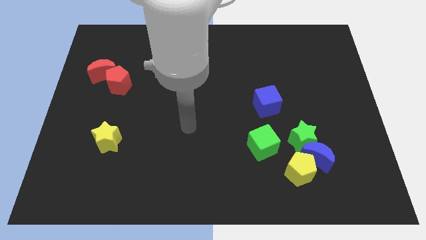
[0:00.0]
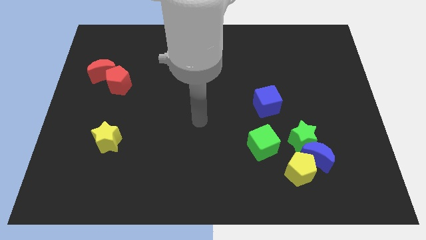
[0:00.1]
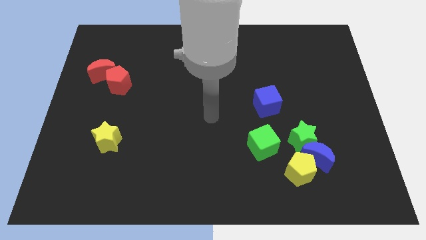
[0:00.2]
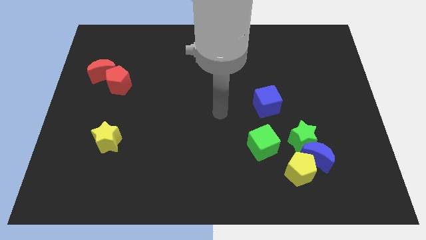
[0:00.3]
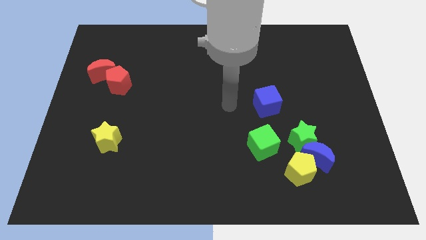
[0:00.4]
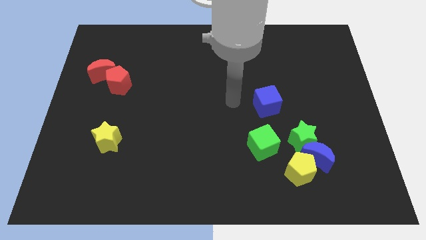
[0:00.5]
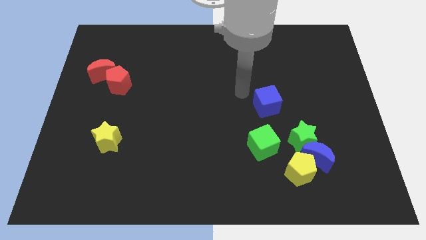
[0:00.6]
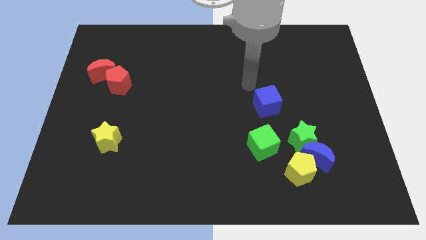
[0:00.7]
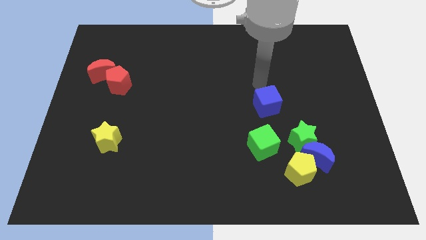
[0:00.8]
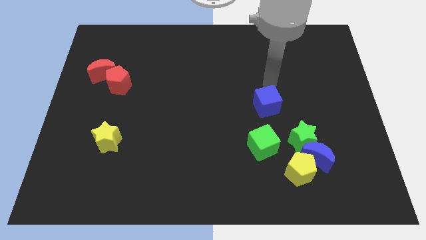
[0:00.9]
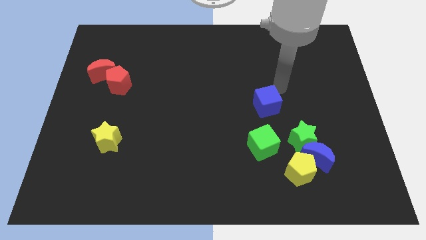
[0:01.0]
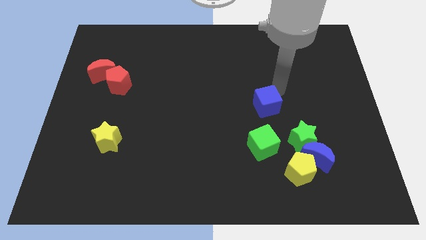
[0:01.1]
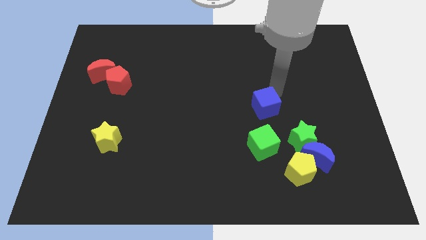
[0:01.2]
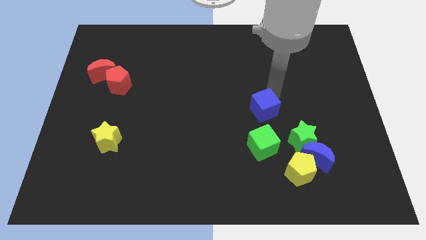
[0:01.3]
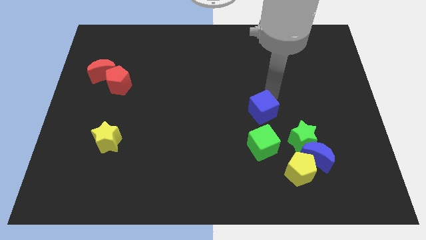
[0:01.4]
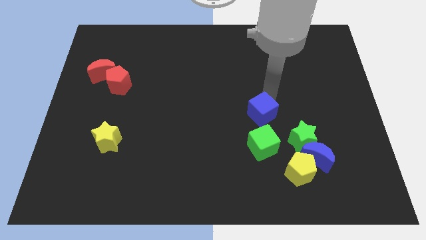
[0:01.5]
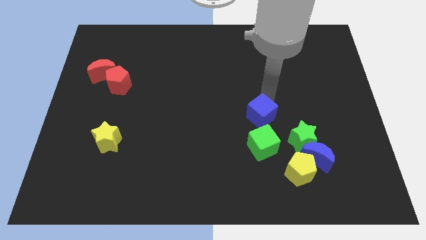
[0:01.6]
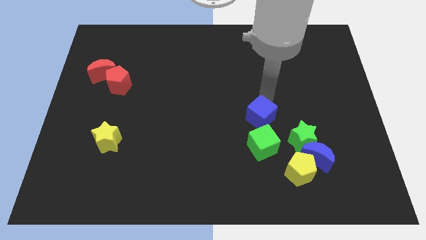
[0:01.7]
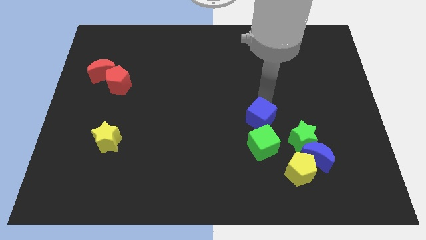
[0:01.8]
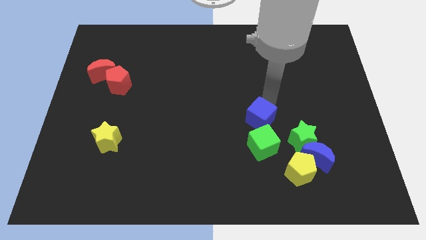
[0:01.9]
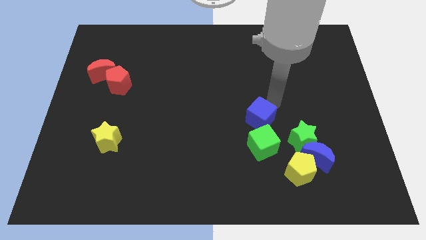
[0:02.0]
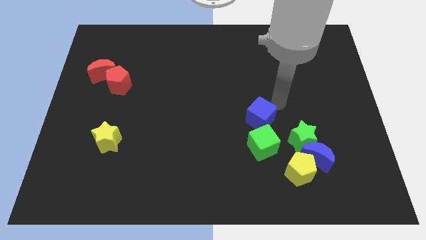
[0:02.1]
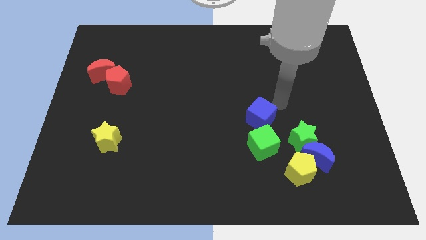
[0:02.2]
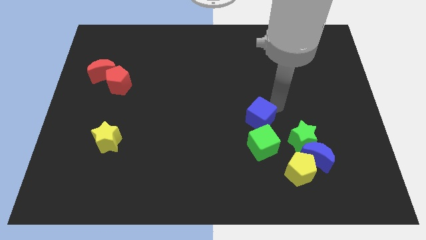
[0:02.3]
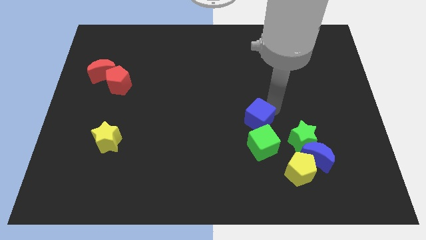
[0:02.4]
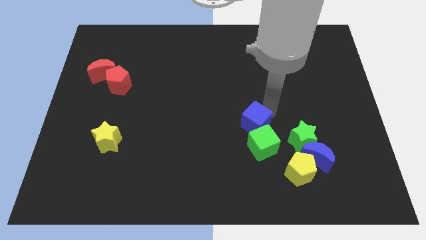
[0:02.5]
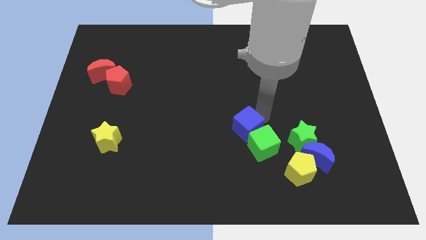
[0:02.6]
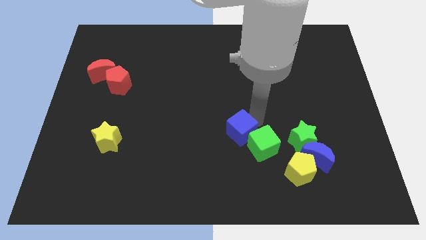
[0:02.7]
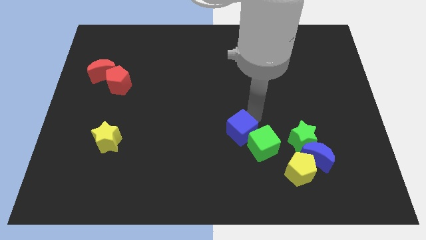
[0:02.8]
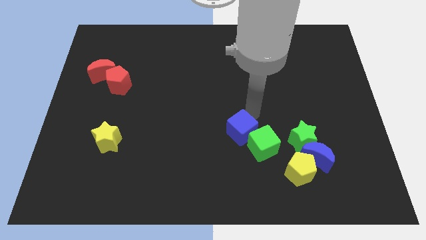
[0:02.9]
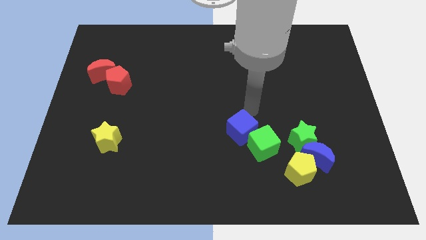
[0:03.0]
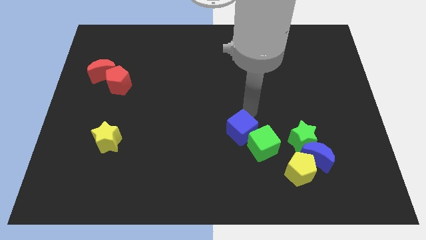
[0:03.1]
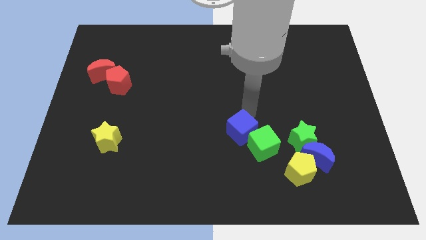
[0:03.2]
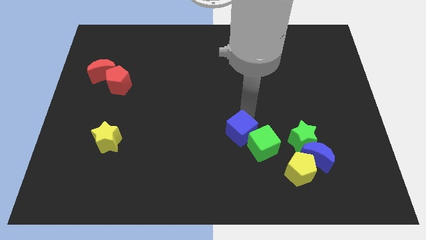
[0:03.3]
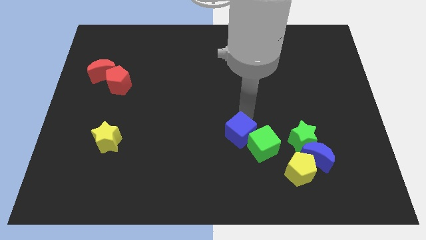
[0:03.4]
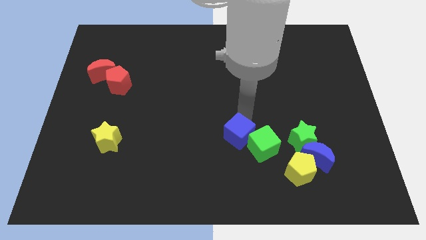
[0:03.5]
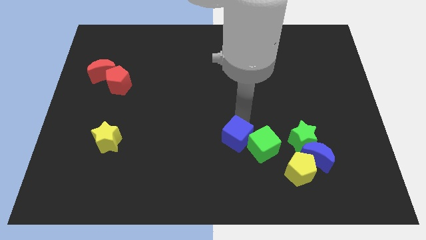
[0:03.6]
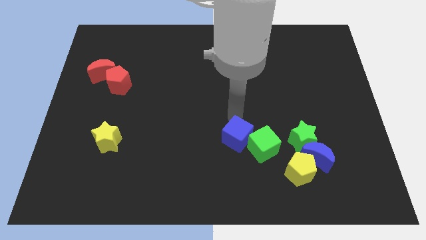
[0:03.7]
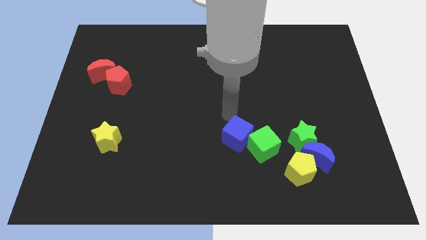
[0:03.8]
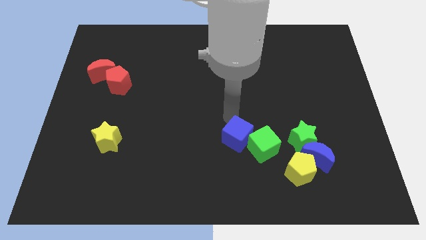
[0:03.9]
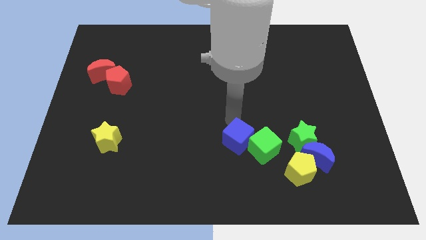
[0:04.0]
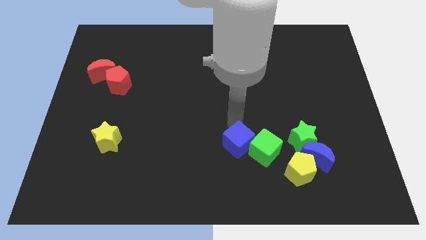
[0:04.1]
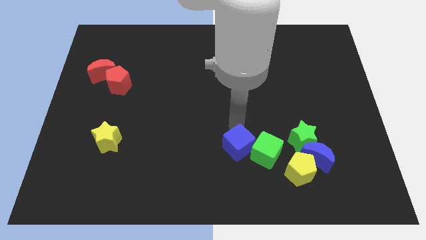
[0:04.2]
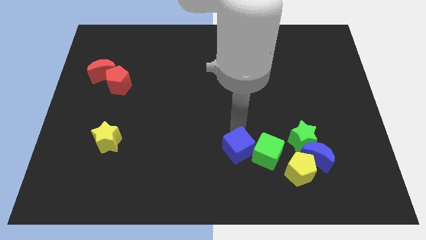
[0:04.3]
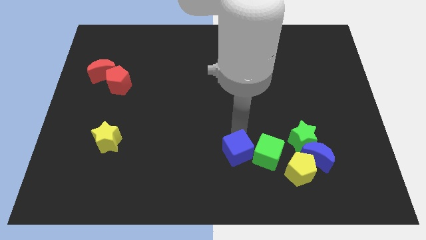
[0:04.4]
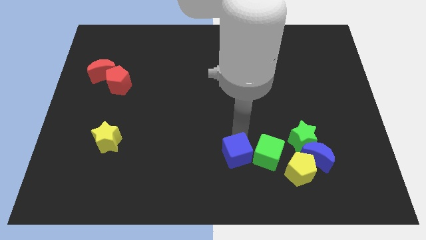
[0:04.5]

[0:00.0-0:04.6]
push the blue cube to the left side of the yellow pentagon

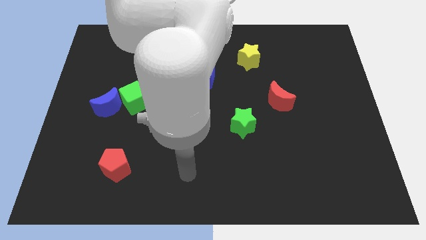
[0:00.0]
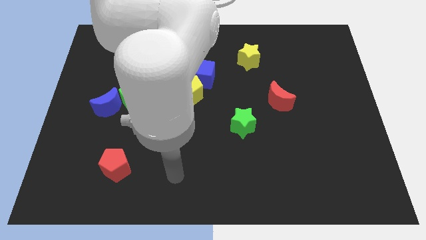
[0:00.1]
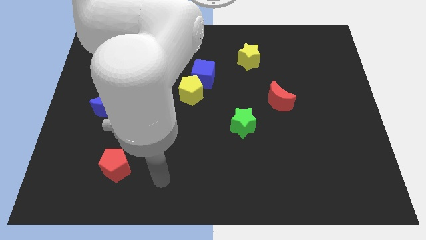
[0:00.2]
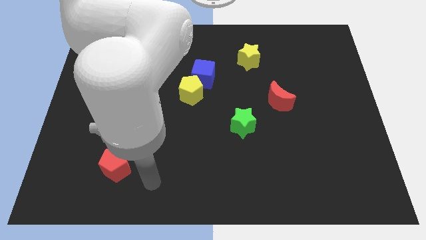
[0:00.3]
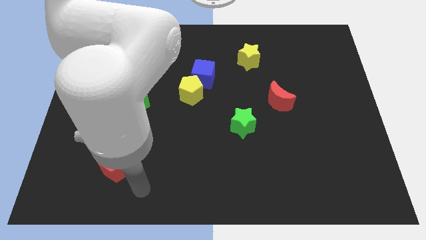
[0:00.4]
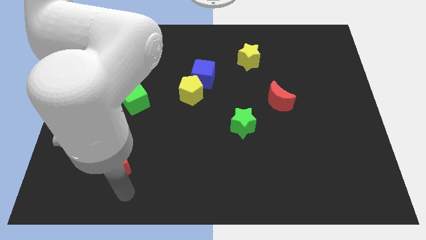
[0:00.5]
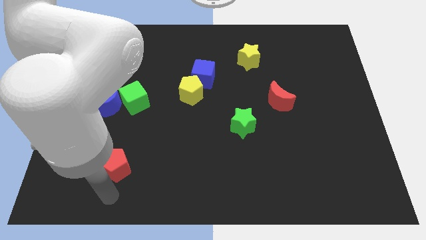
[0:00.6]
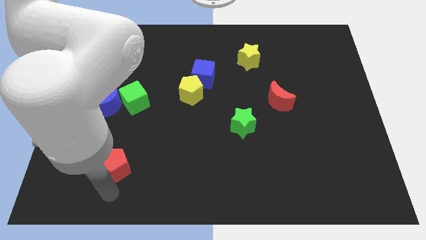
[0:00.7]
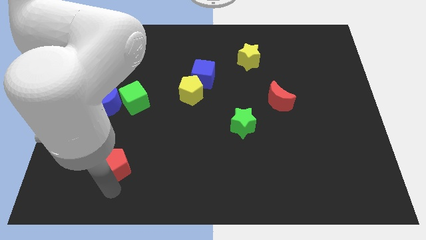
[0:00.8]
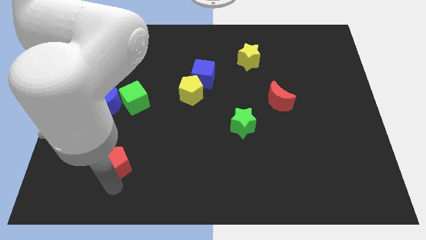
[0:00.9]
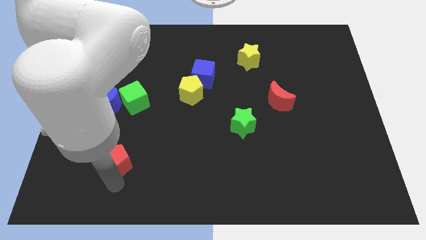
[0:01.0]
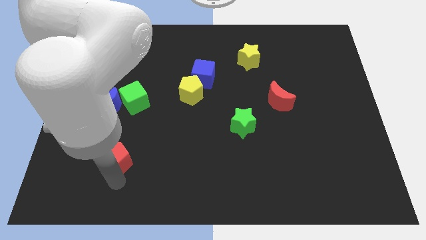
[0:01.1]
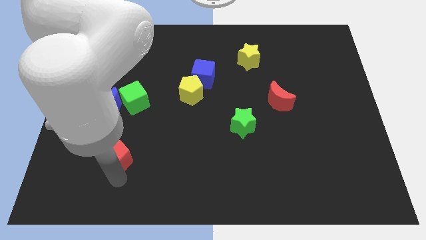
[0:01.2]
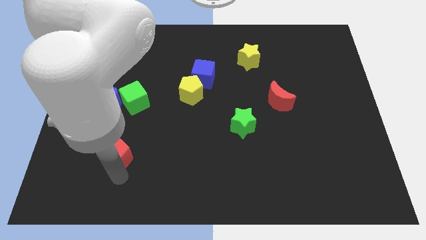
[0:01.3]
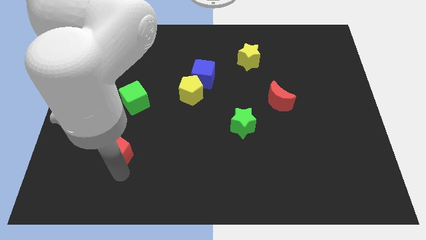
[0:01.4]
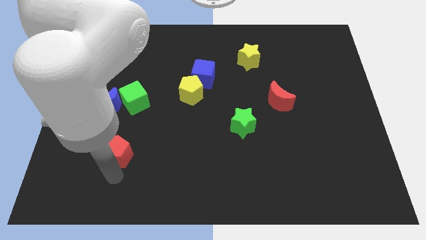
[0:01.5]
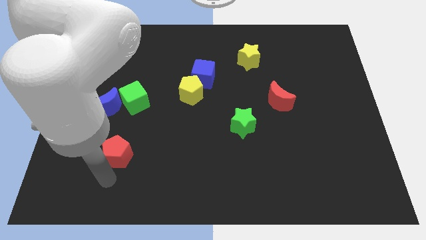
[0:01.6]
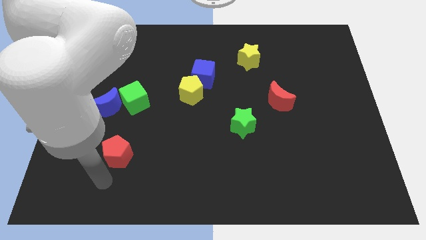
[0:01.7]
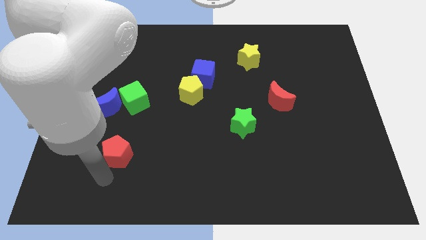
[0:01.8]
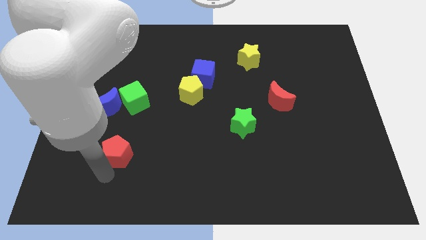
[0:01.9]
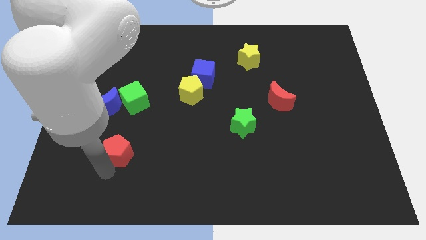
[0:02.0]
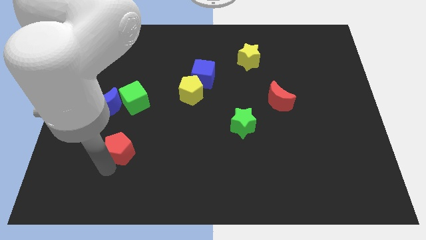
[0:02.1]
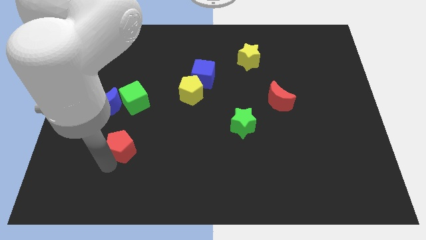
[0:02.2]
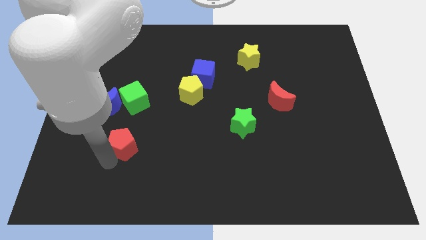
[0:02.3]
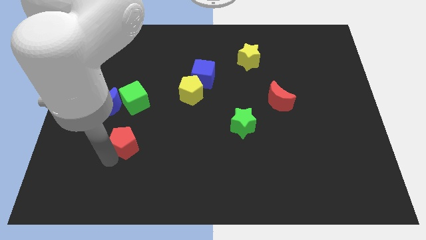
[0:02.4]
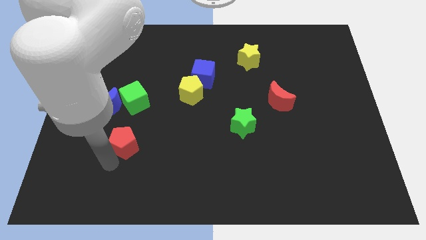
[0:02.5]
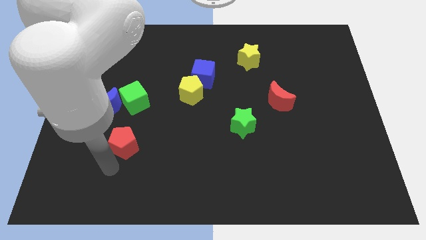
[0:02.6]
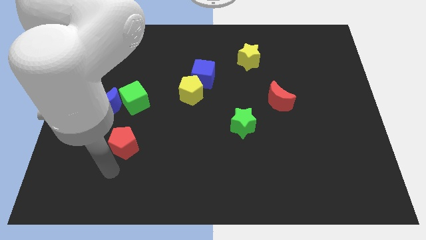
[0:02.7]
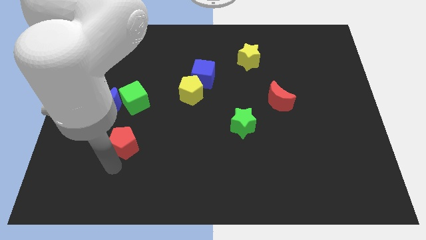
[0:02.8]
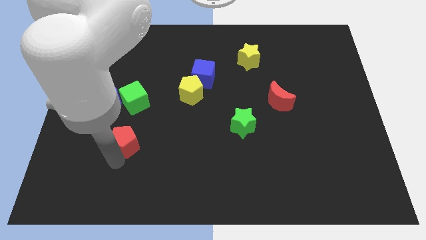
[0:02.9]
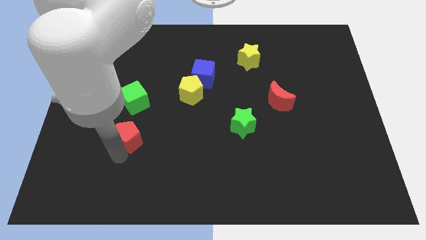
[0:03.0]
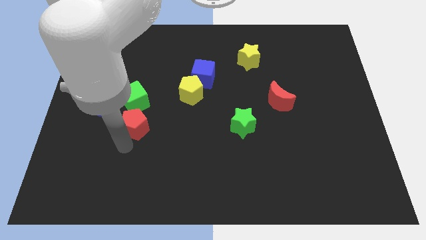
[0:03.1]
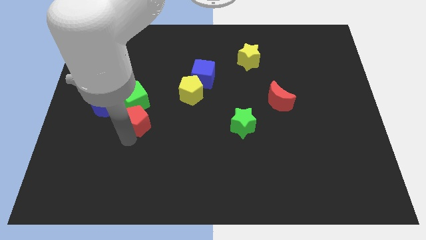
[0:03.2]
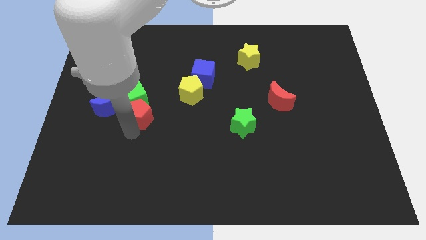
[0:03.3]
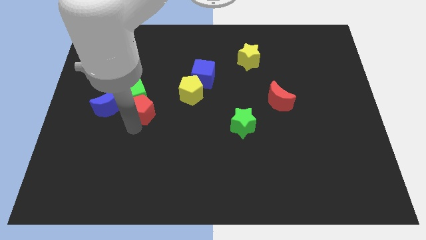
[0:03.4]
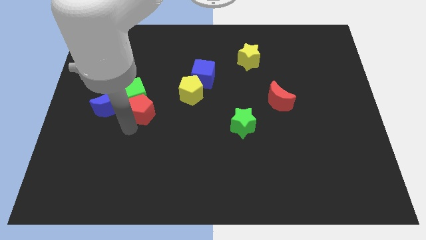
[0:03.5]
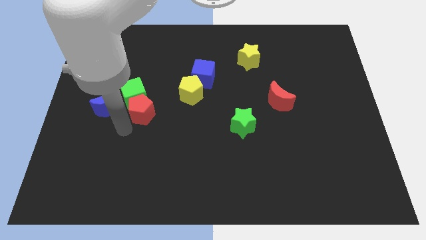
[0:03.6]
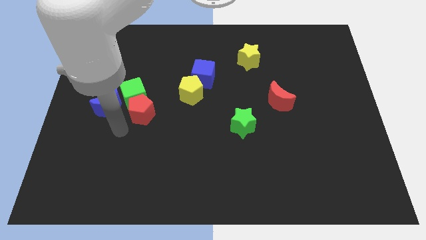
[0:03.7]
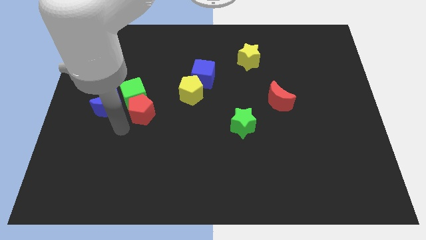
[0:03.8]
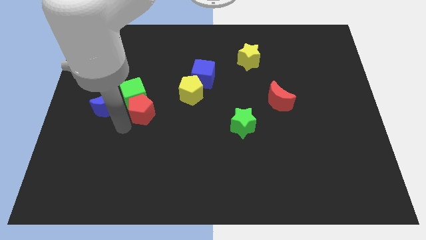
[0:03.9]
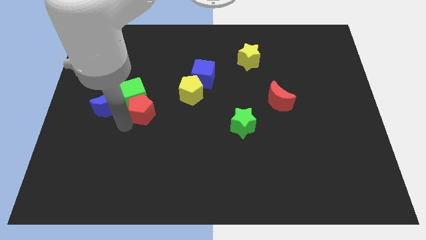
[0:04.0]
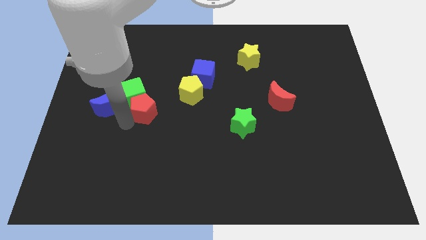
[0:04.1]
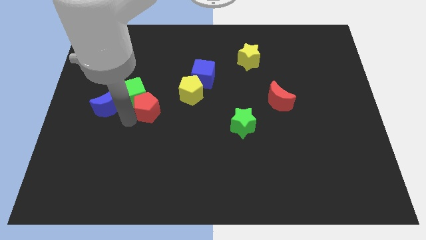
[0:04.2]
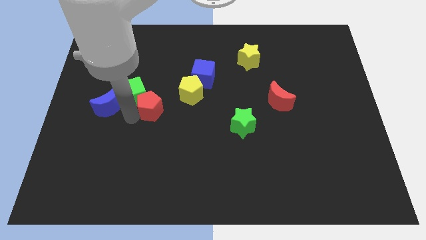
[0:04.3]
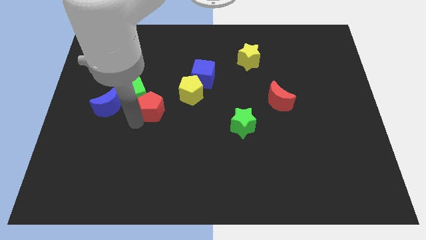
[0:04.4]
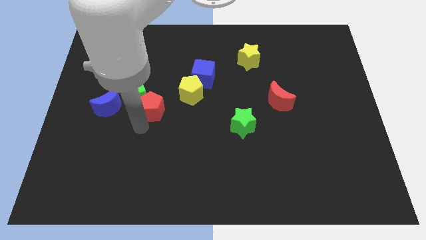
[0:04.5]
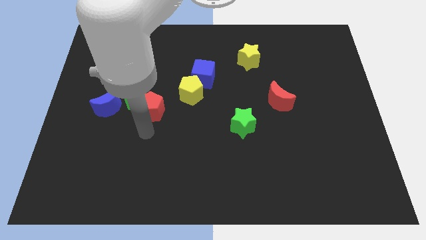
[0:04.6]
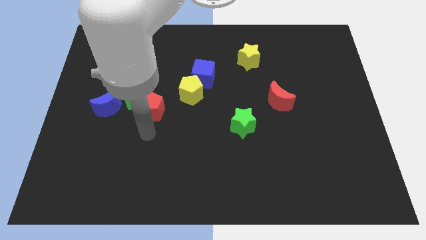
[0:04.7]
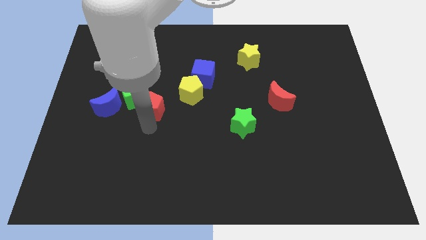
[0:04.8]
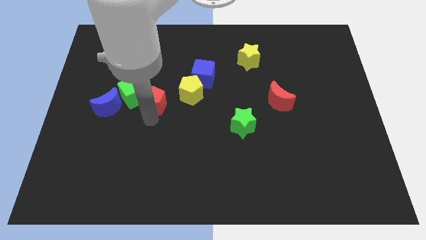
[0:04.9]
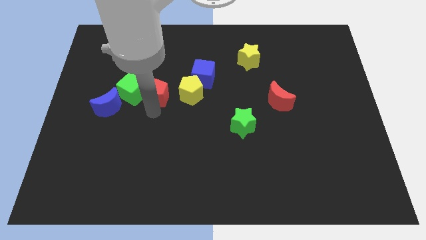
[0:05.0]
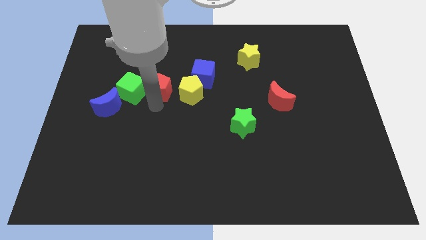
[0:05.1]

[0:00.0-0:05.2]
move the red pentagon to the top right side of the green cube
